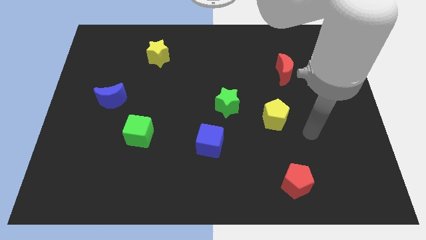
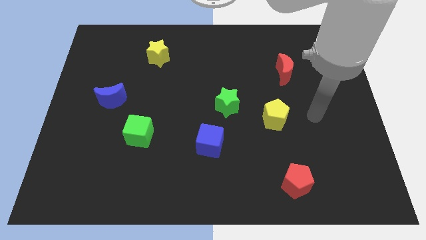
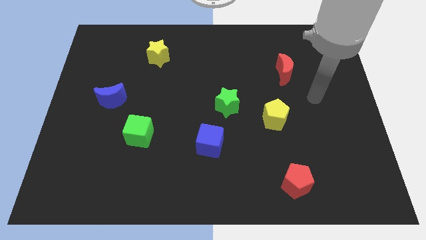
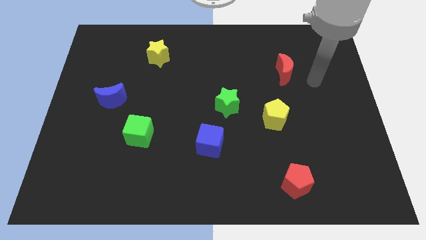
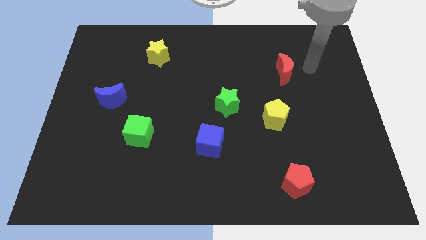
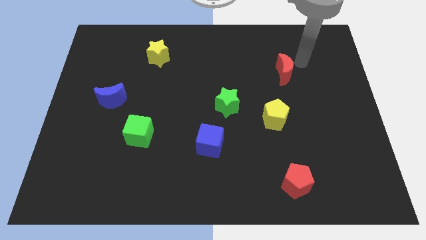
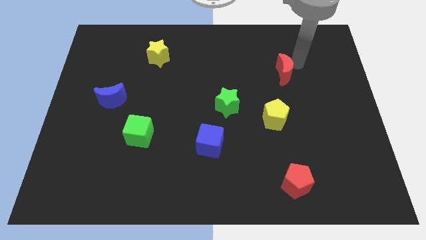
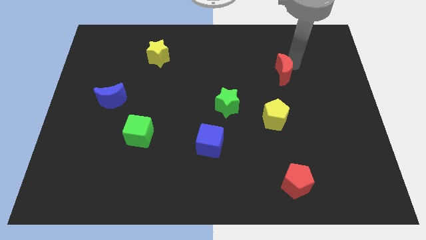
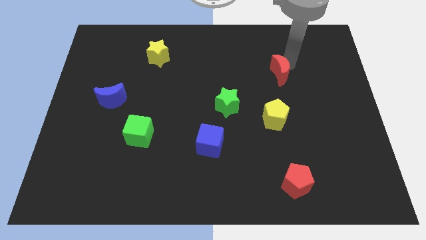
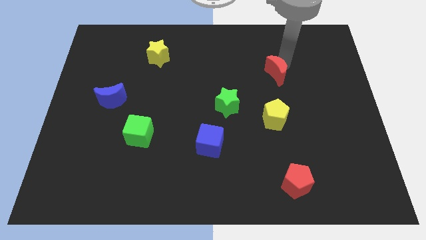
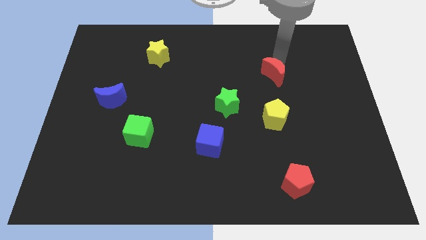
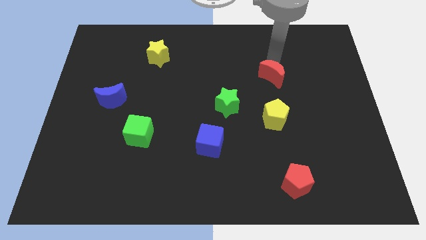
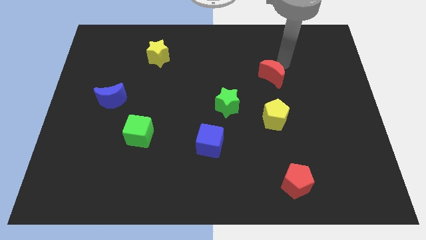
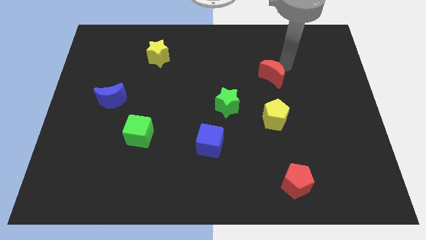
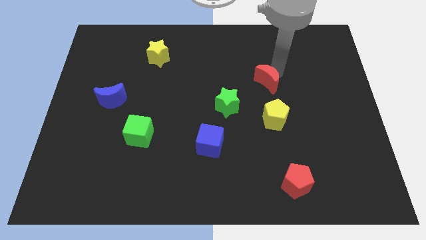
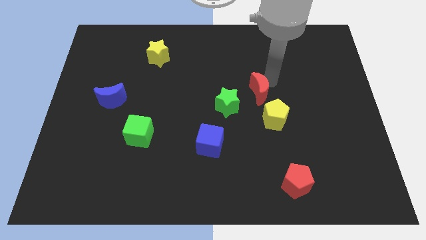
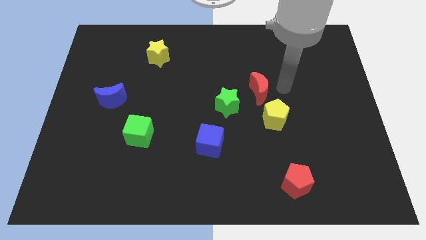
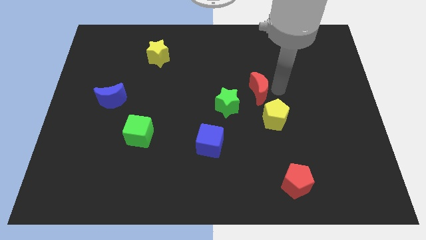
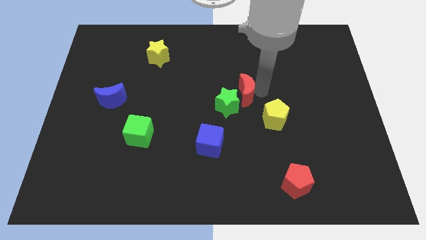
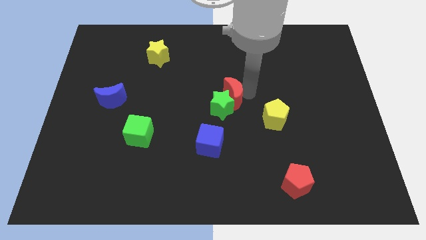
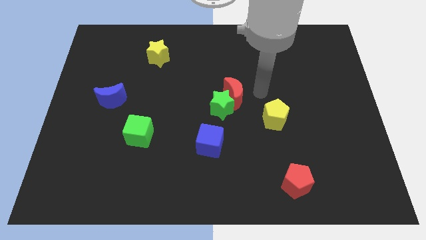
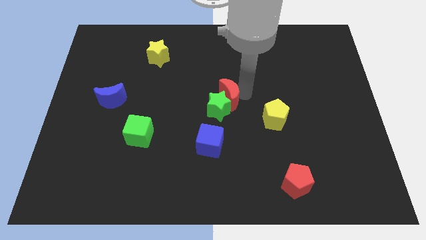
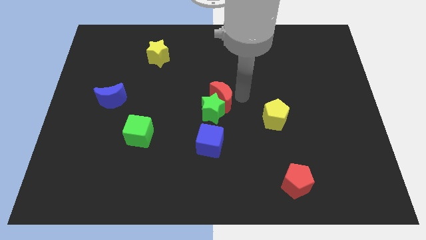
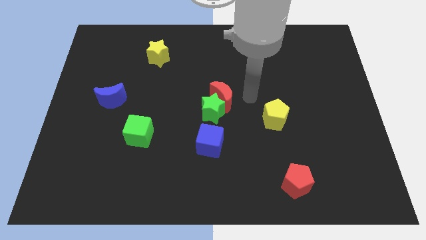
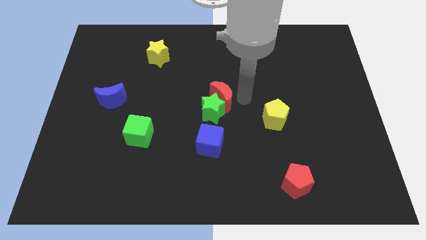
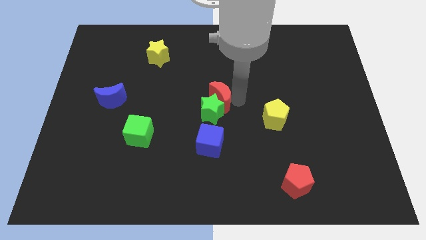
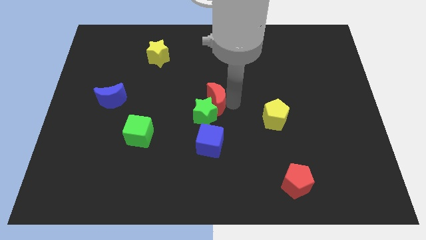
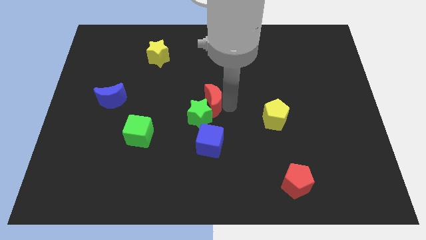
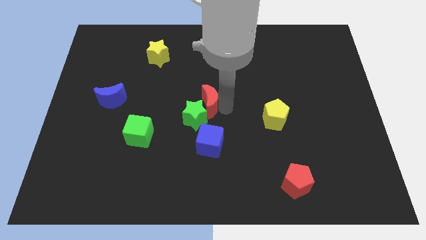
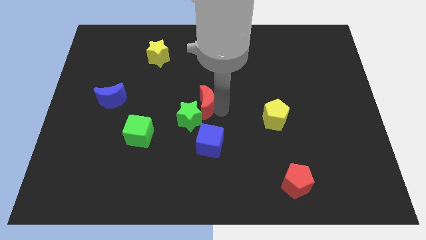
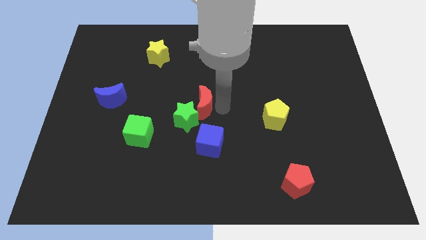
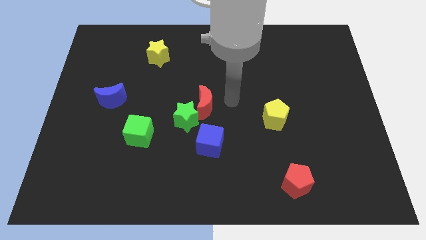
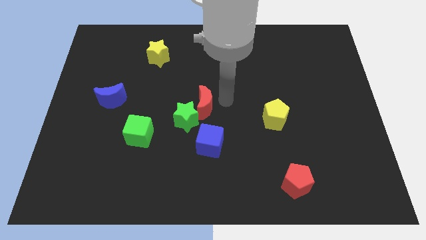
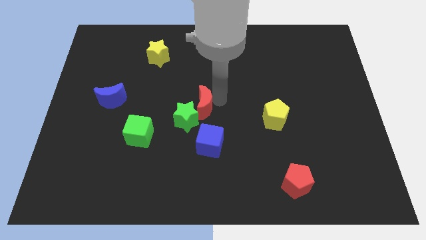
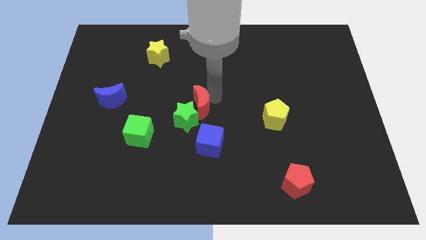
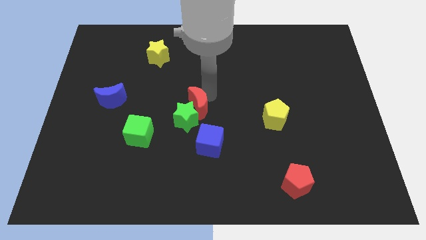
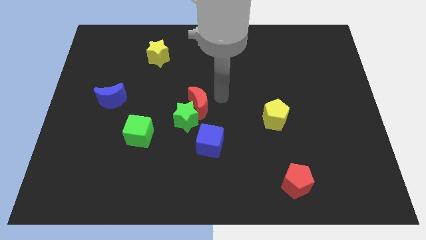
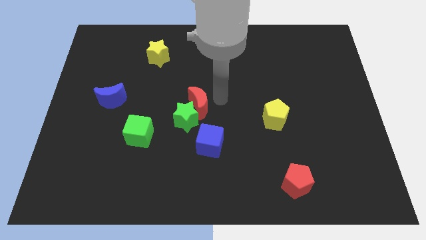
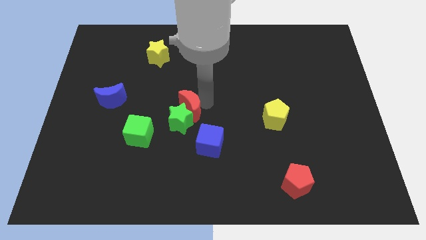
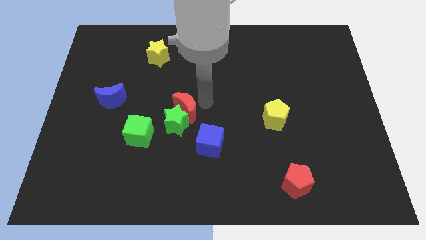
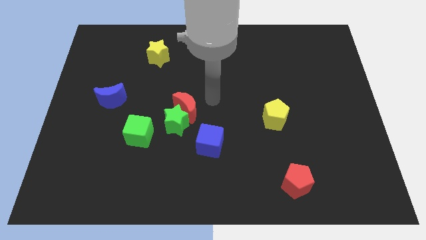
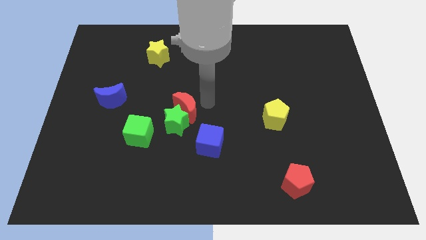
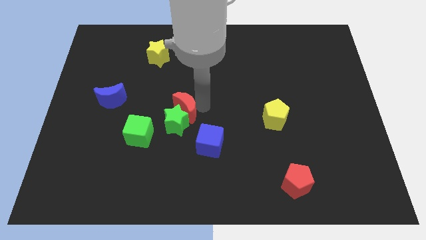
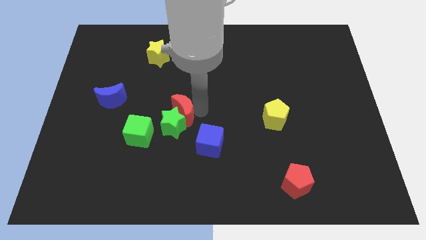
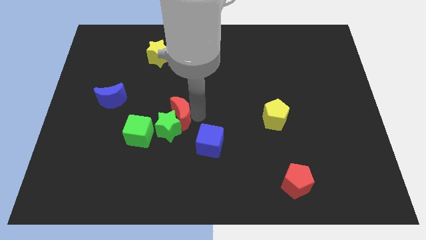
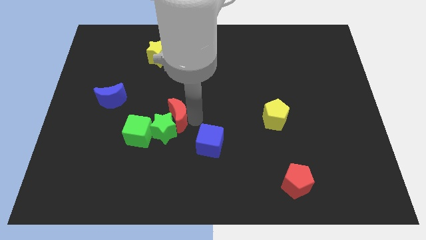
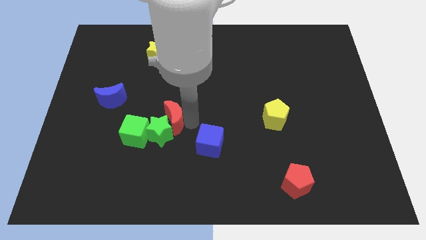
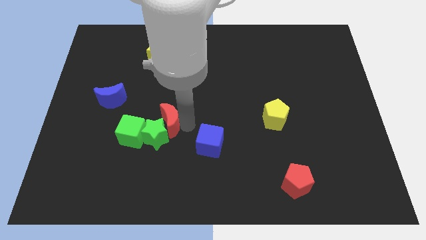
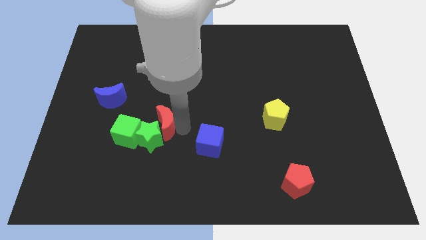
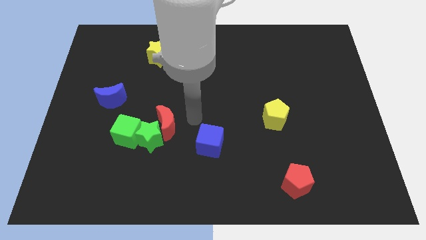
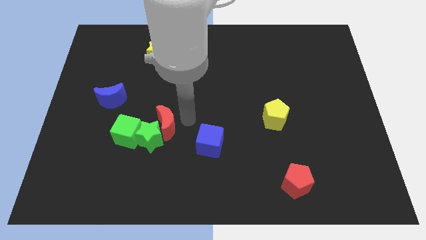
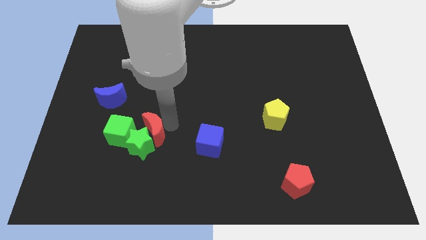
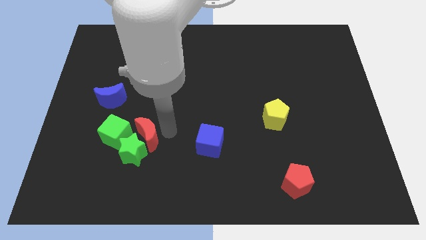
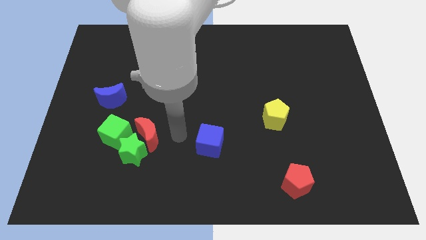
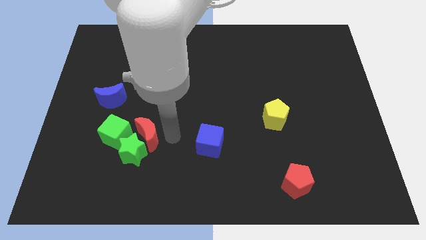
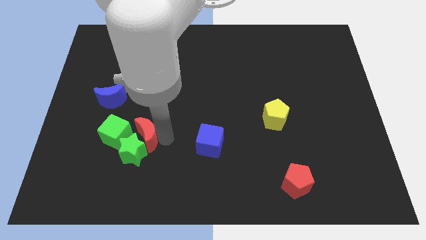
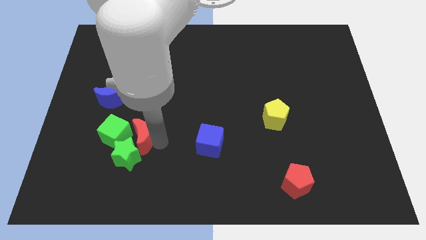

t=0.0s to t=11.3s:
slide the red moon towards the green cube

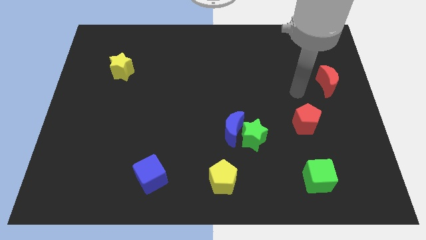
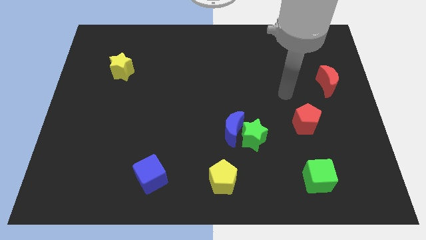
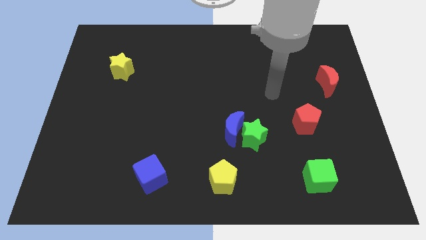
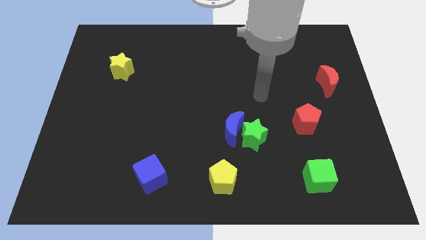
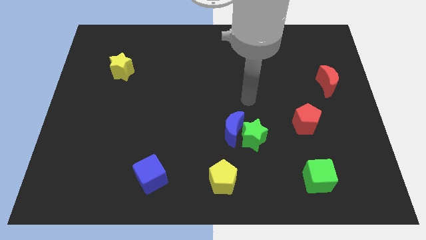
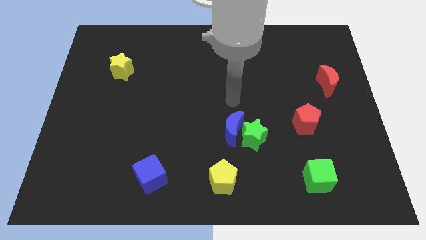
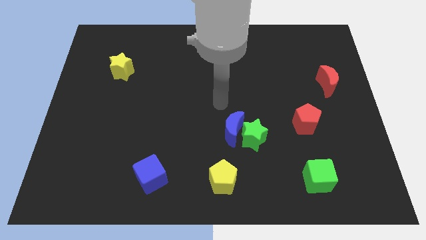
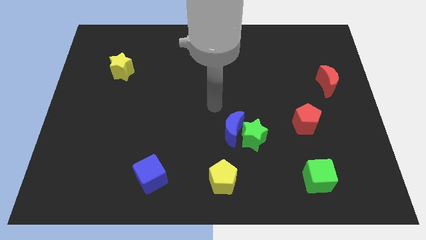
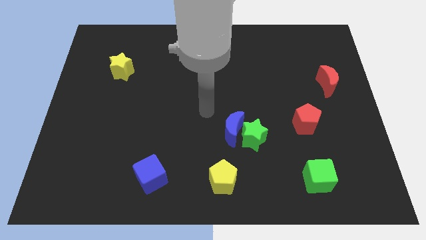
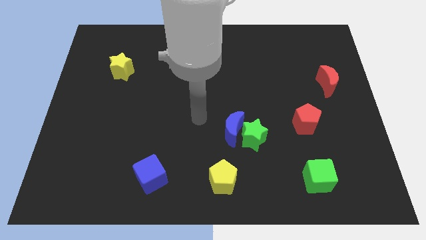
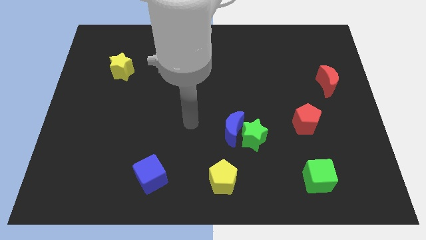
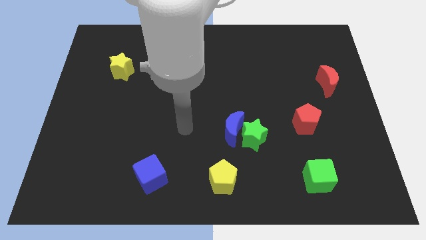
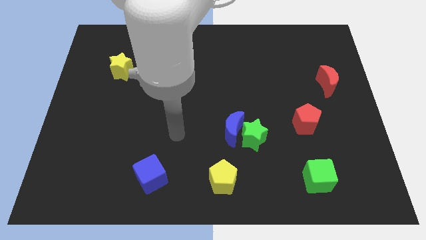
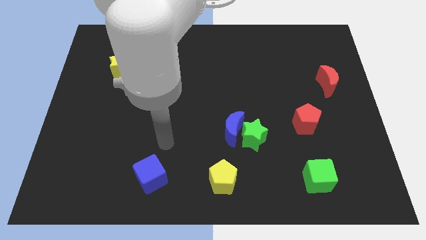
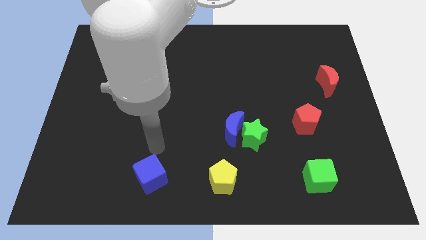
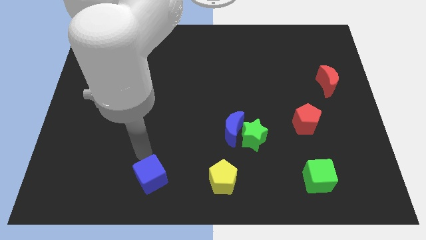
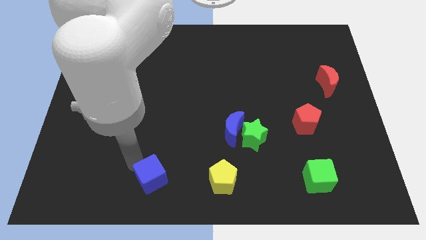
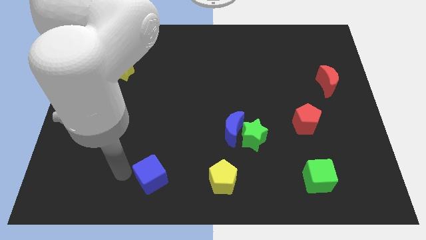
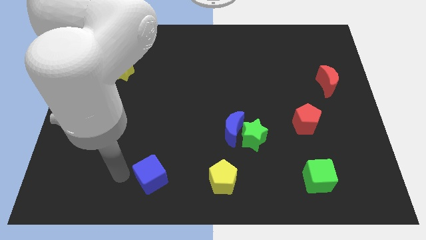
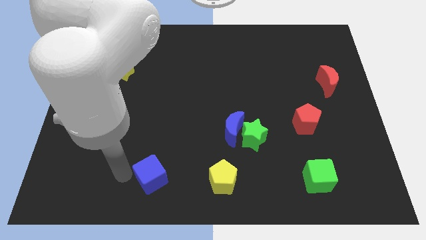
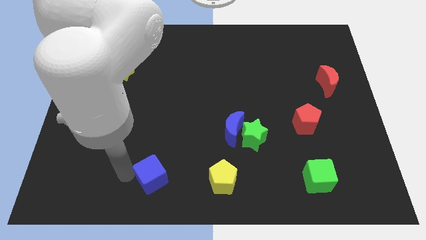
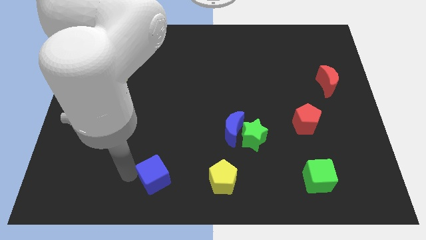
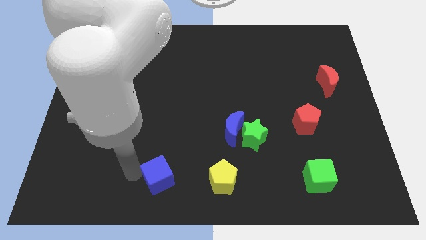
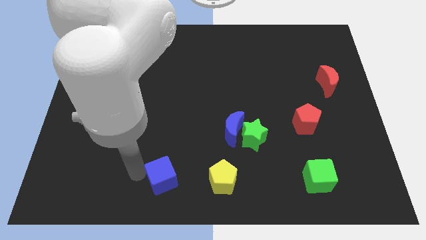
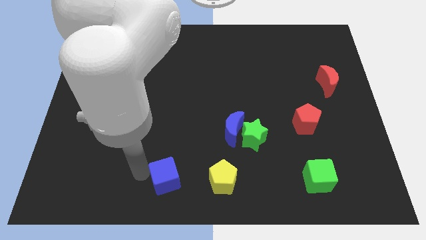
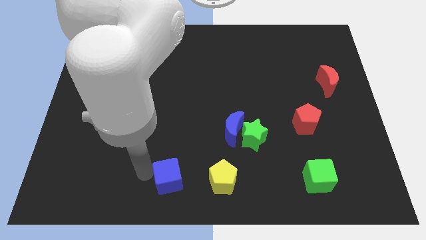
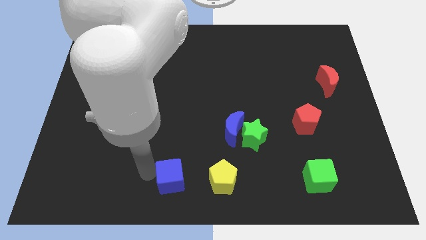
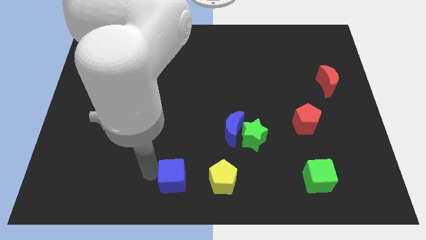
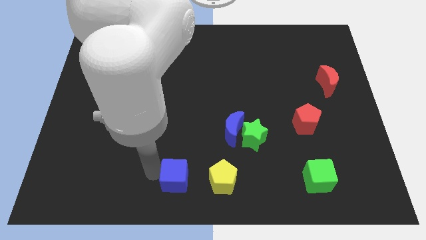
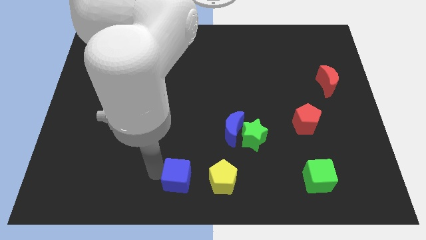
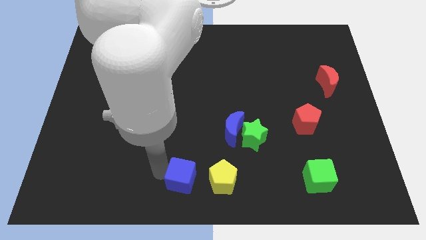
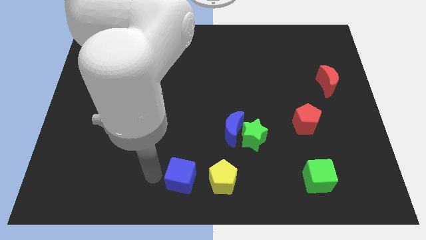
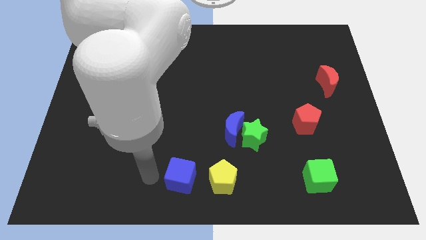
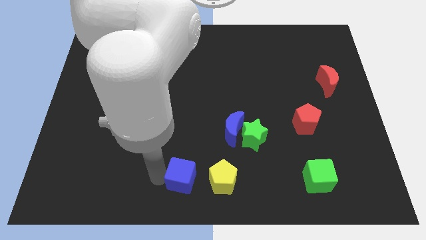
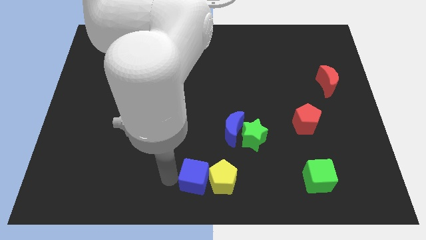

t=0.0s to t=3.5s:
slide the blue cube to the yellow pentagon
